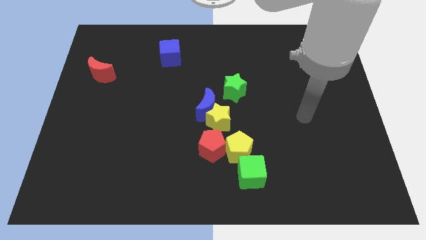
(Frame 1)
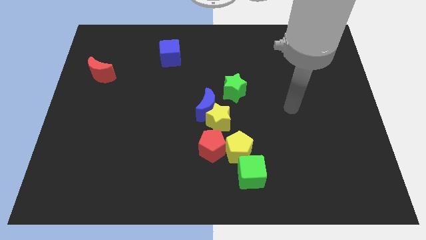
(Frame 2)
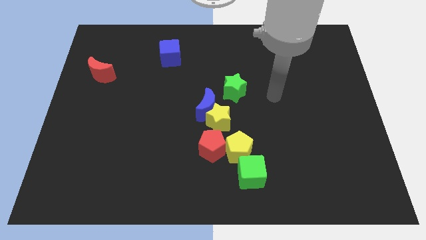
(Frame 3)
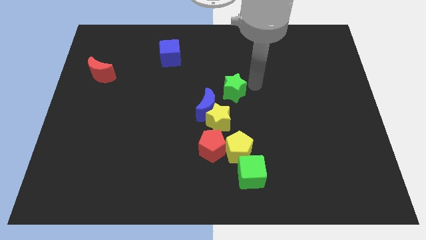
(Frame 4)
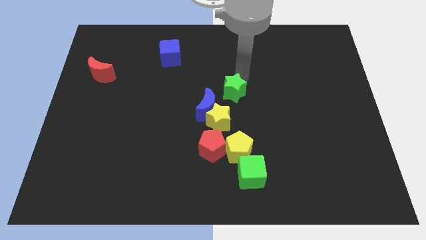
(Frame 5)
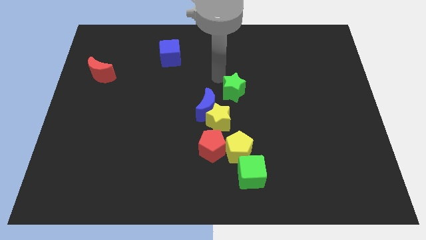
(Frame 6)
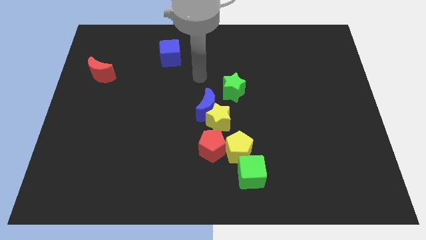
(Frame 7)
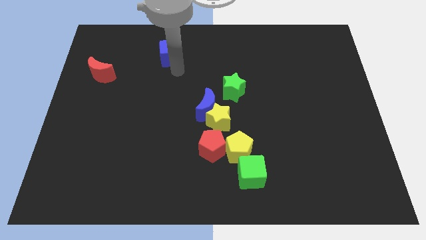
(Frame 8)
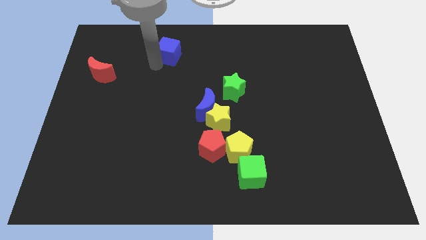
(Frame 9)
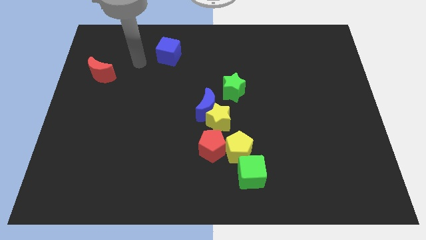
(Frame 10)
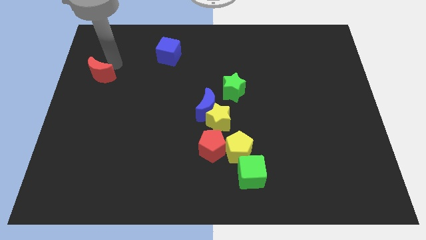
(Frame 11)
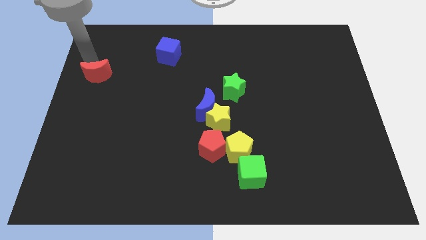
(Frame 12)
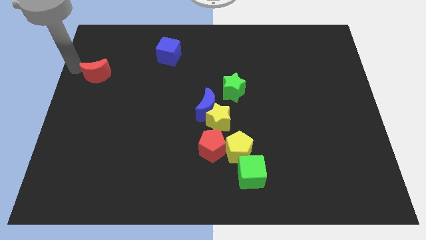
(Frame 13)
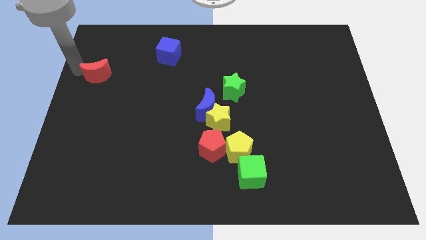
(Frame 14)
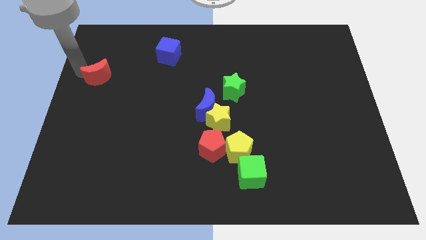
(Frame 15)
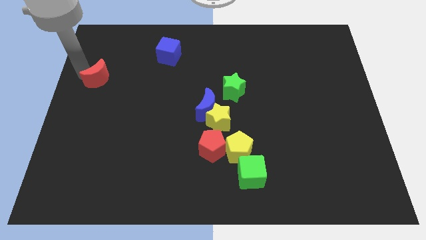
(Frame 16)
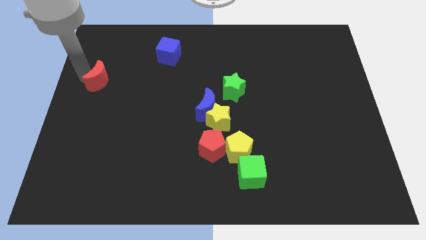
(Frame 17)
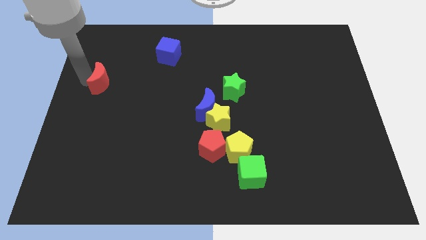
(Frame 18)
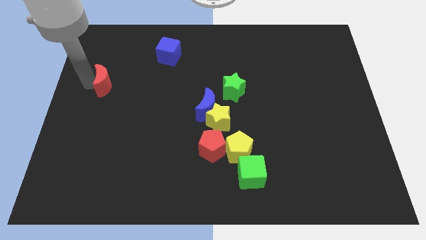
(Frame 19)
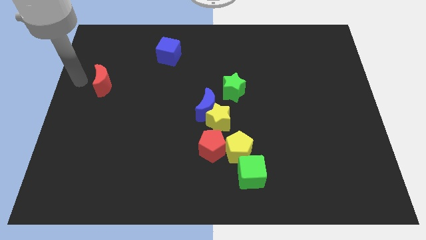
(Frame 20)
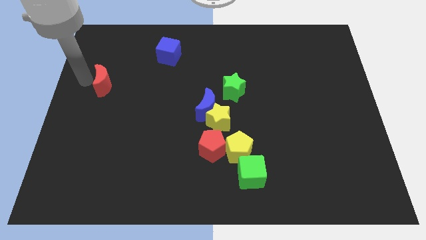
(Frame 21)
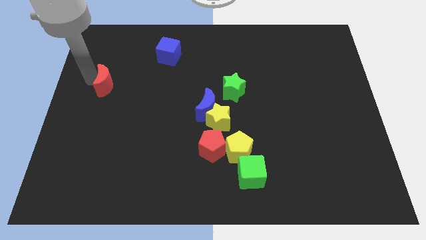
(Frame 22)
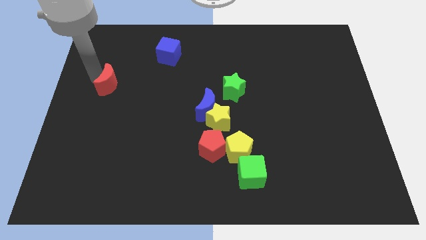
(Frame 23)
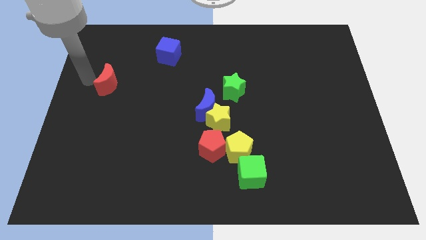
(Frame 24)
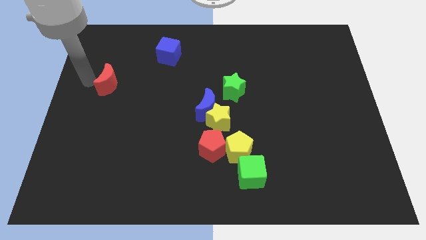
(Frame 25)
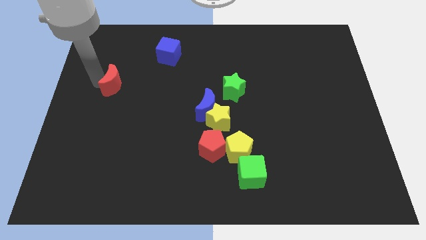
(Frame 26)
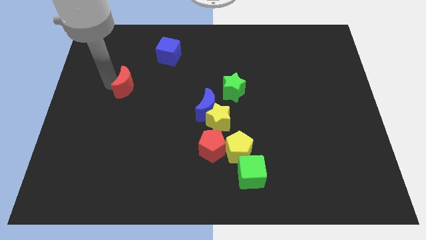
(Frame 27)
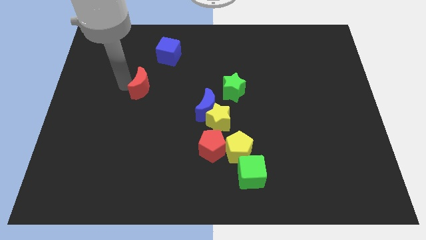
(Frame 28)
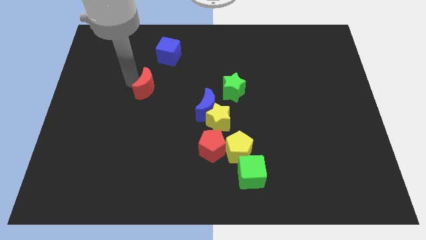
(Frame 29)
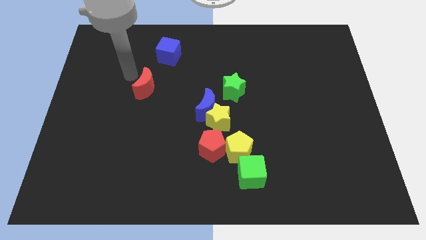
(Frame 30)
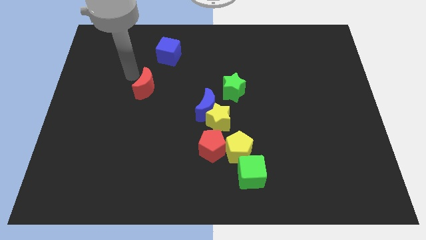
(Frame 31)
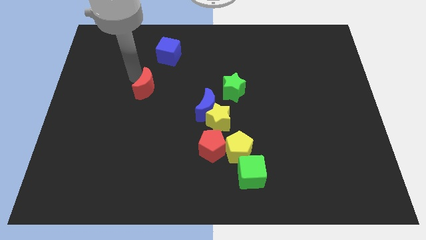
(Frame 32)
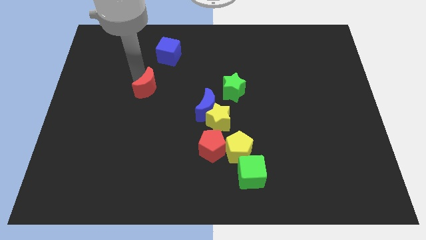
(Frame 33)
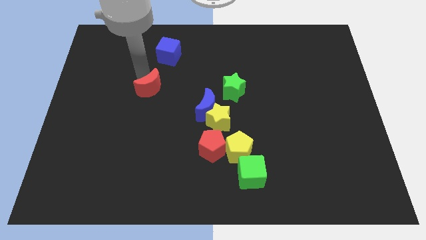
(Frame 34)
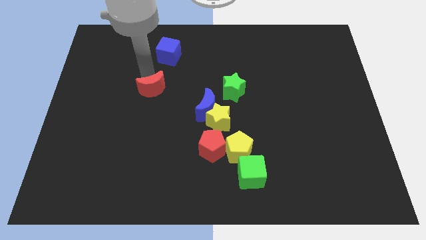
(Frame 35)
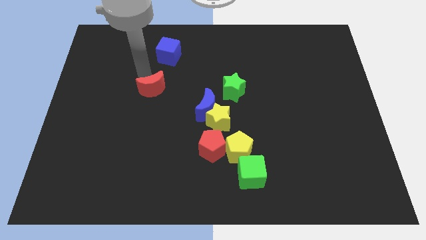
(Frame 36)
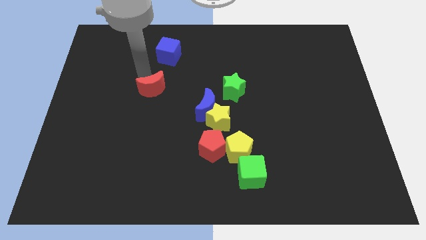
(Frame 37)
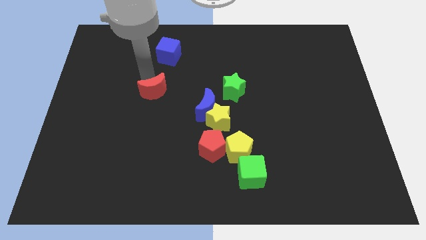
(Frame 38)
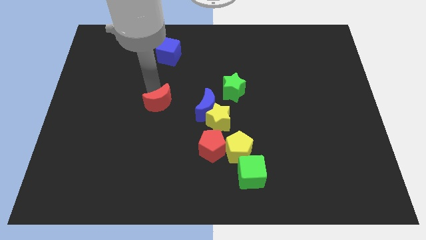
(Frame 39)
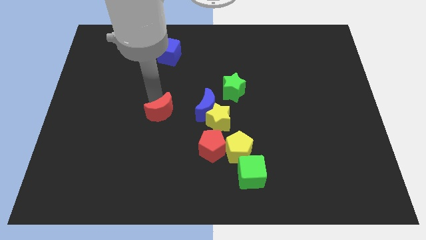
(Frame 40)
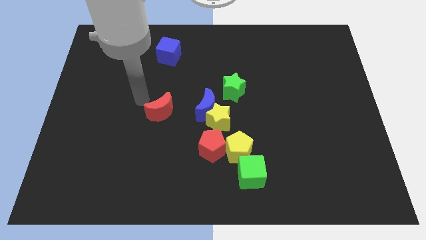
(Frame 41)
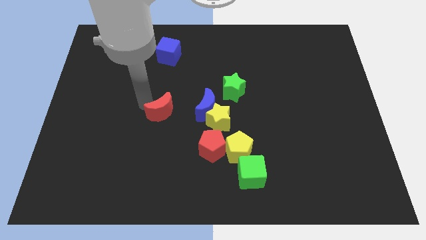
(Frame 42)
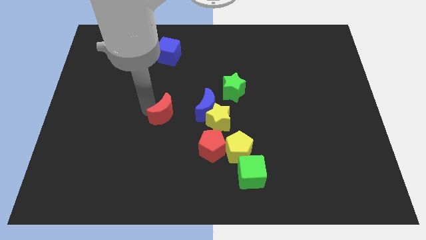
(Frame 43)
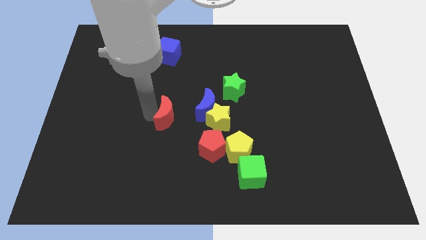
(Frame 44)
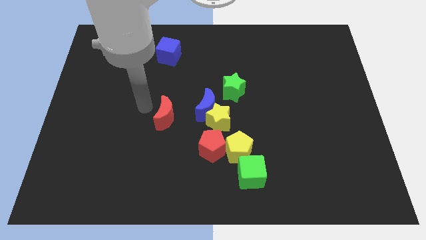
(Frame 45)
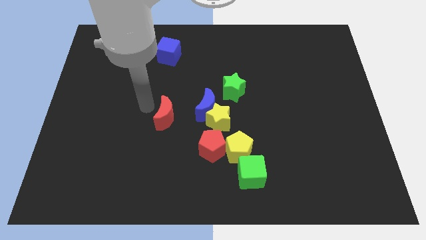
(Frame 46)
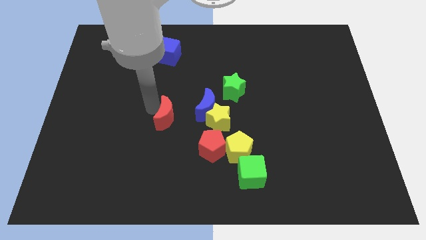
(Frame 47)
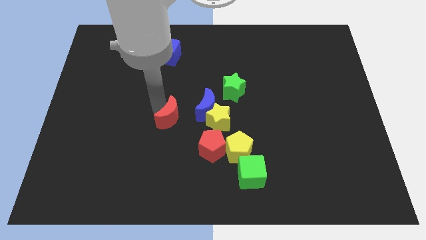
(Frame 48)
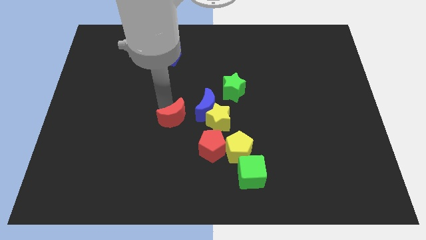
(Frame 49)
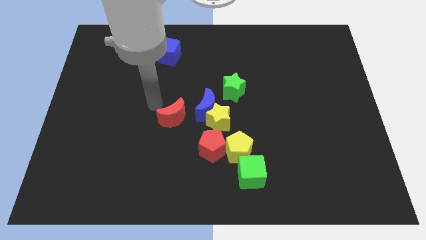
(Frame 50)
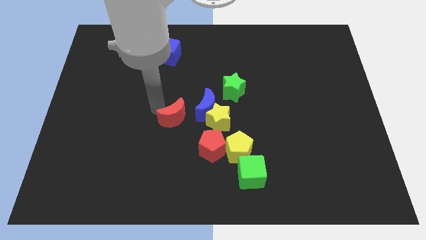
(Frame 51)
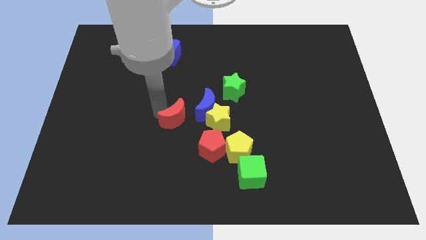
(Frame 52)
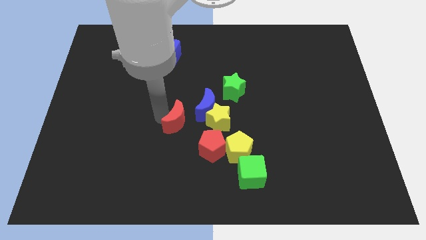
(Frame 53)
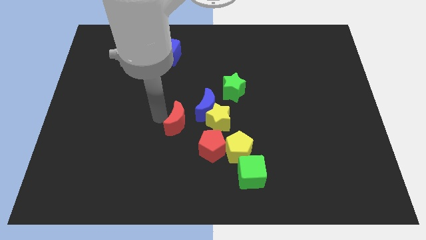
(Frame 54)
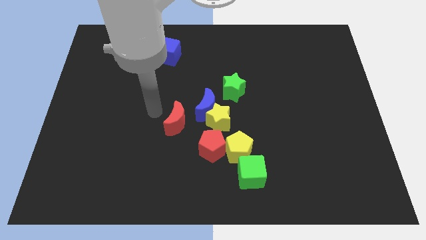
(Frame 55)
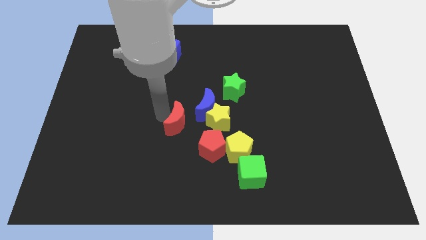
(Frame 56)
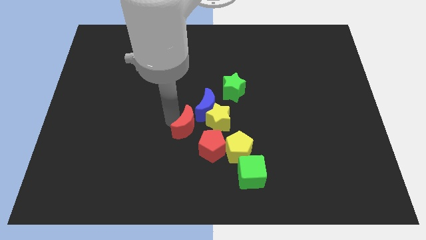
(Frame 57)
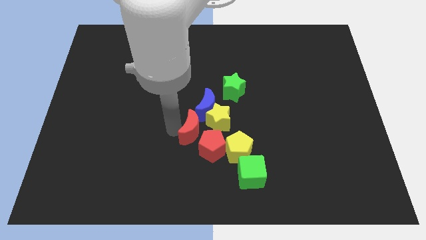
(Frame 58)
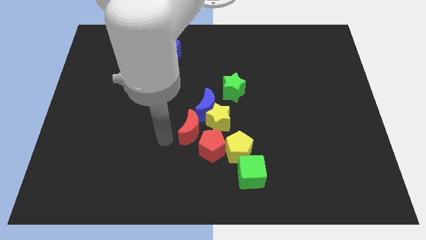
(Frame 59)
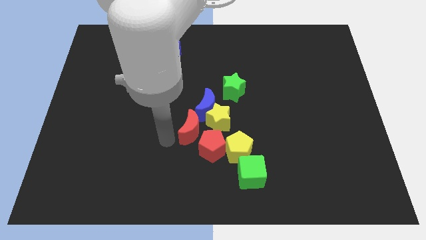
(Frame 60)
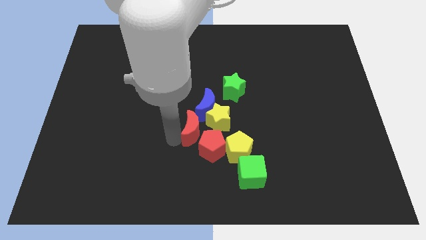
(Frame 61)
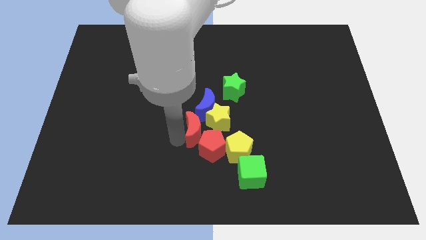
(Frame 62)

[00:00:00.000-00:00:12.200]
put the red moon to the yellow star

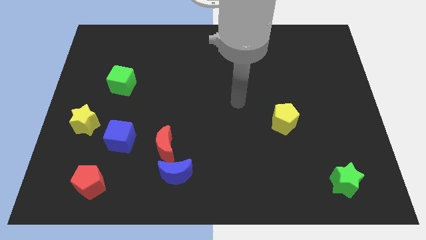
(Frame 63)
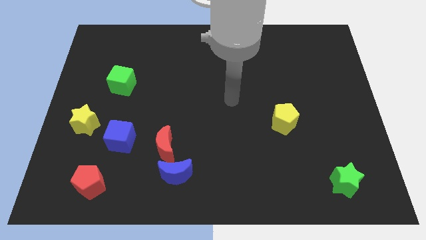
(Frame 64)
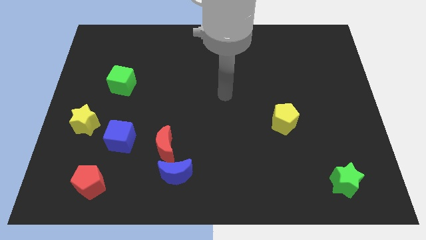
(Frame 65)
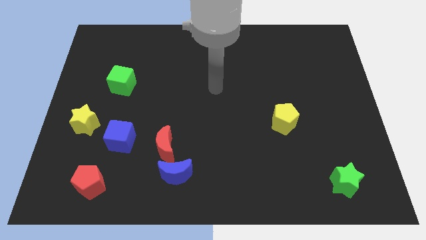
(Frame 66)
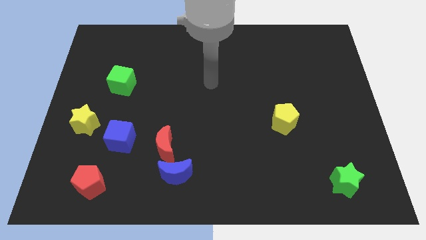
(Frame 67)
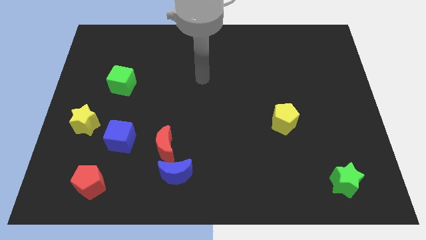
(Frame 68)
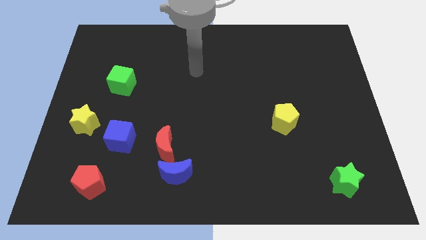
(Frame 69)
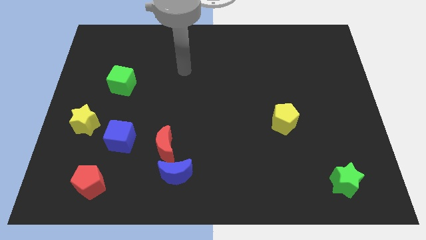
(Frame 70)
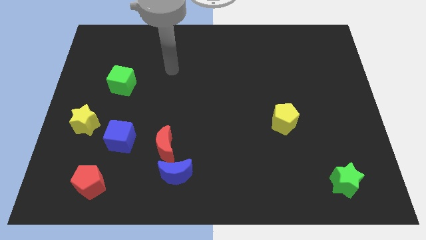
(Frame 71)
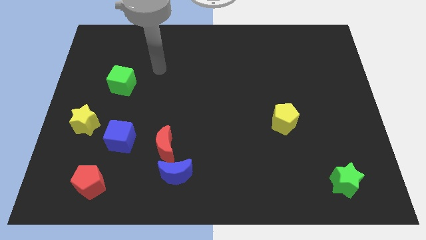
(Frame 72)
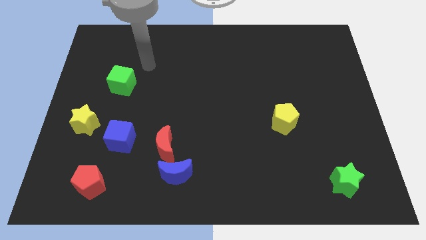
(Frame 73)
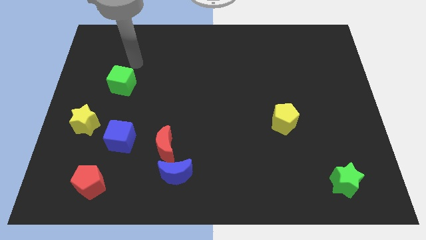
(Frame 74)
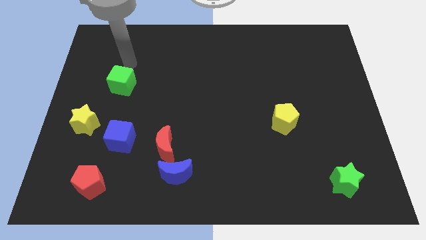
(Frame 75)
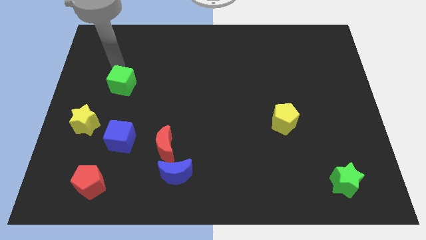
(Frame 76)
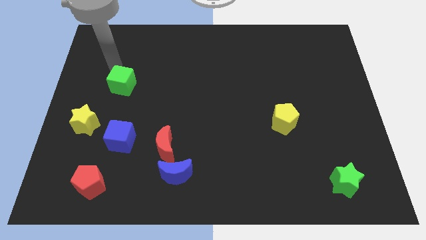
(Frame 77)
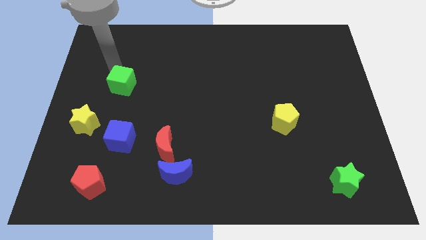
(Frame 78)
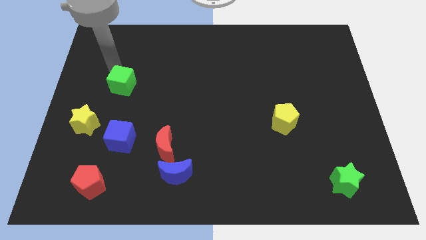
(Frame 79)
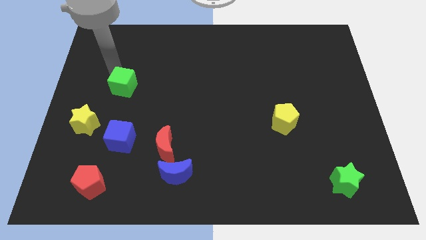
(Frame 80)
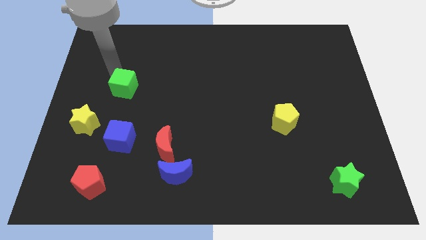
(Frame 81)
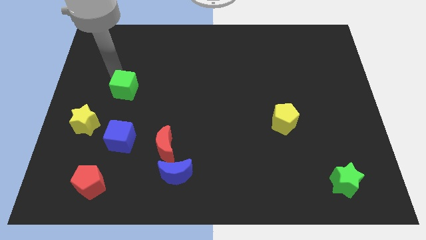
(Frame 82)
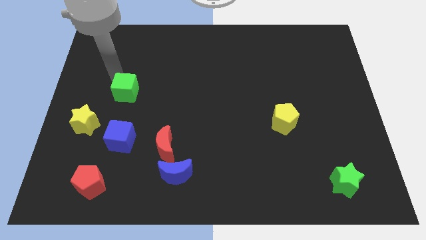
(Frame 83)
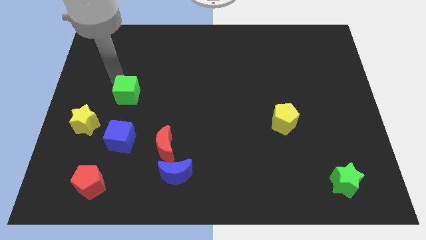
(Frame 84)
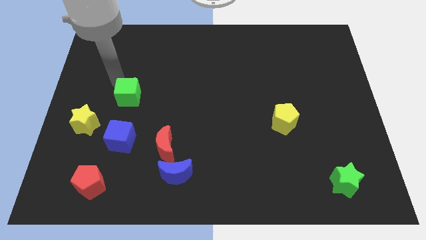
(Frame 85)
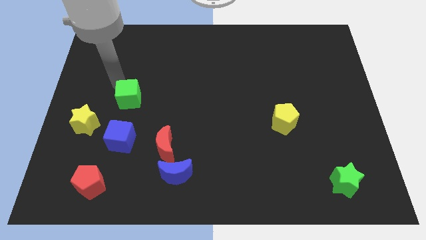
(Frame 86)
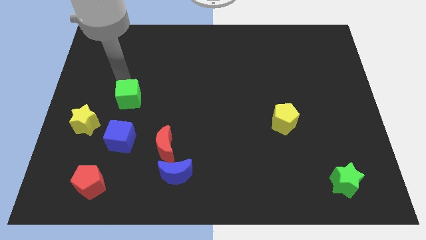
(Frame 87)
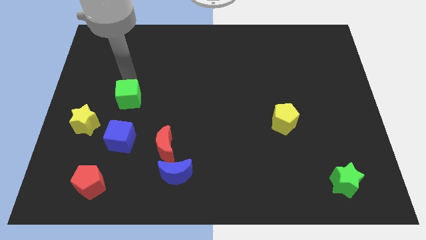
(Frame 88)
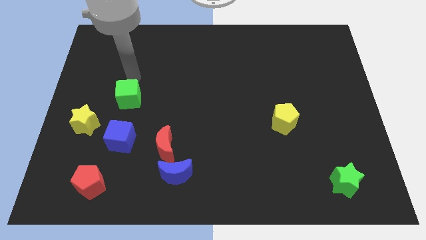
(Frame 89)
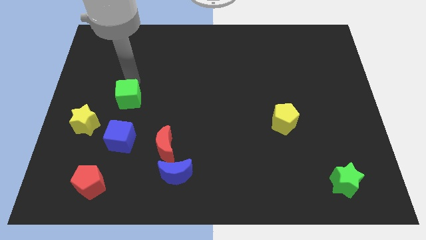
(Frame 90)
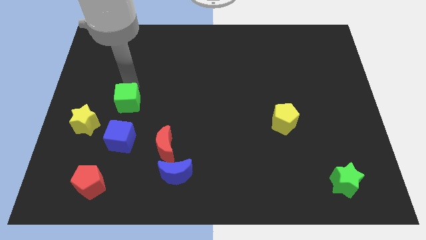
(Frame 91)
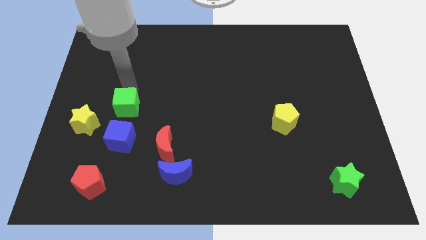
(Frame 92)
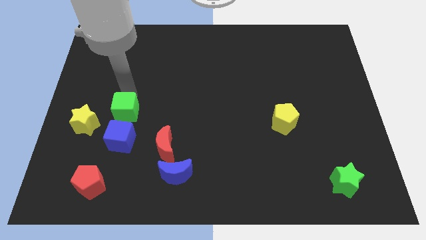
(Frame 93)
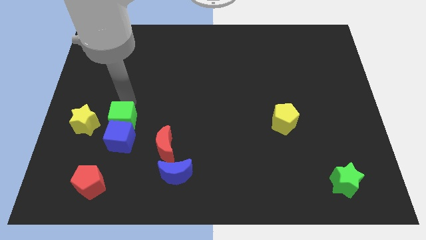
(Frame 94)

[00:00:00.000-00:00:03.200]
slide the green cube towards the blue cube
